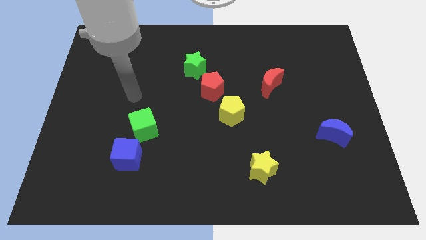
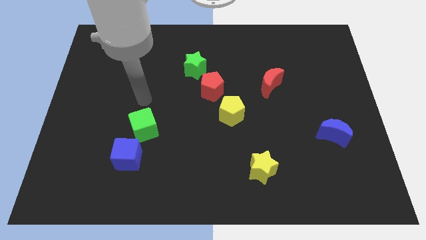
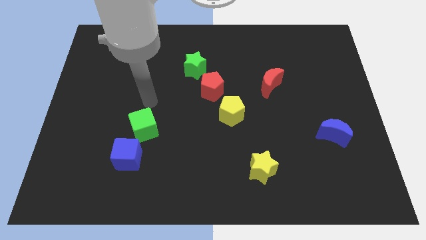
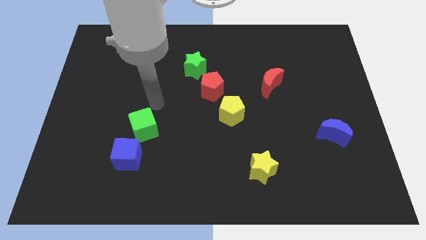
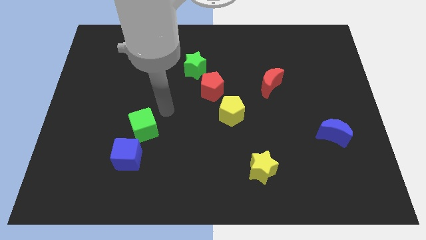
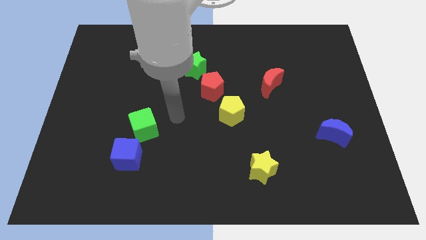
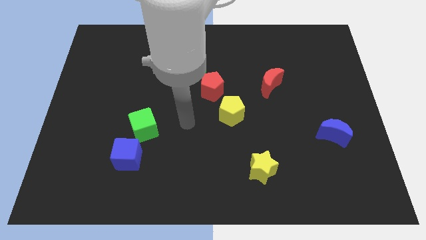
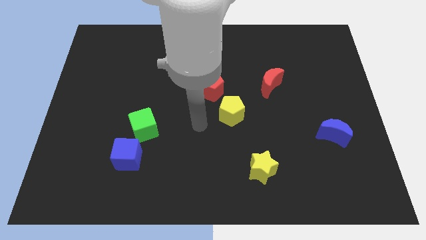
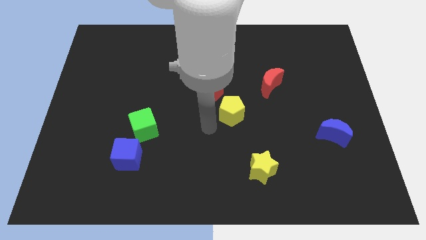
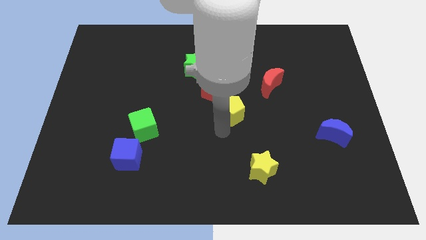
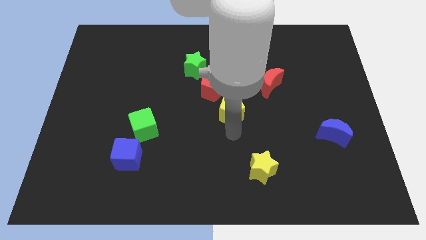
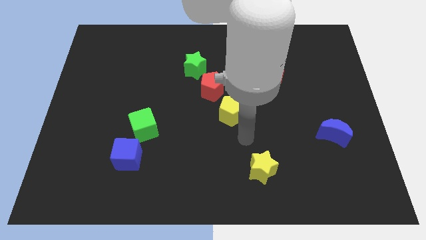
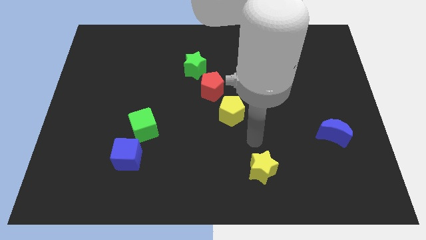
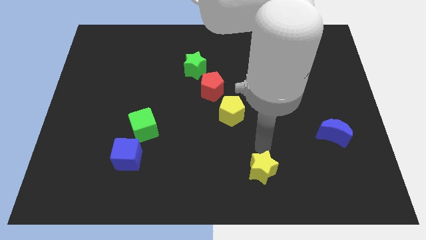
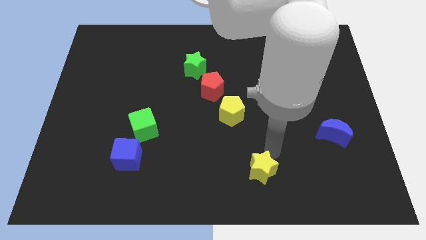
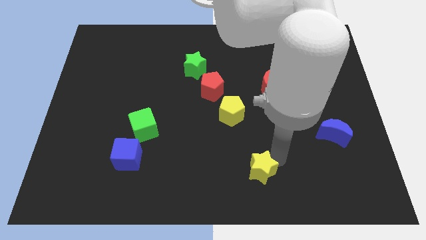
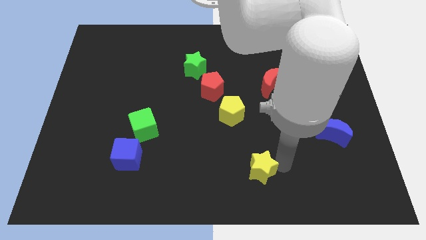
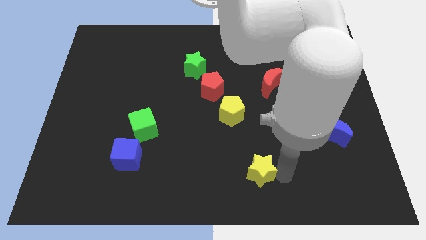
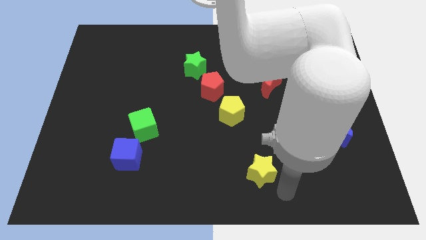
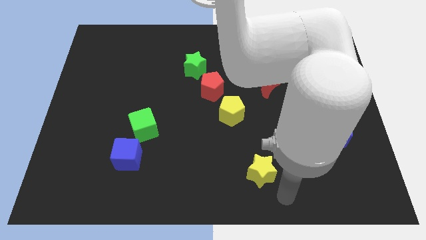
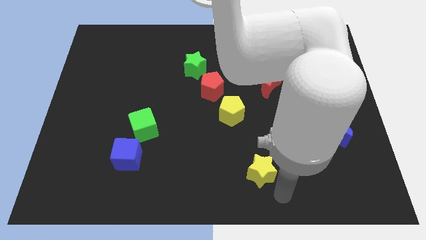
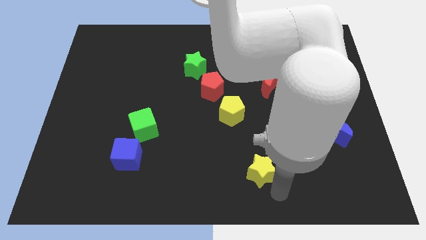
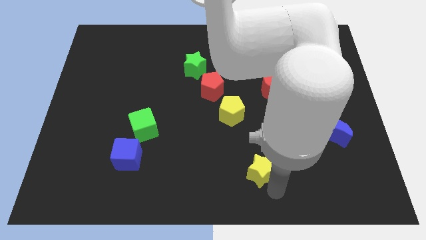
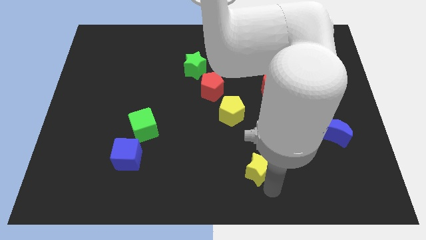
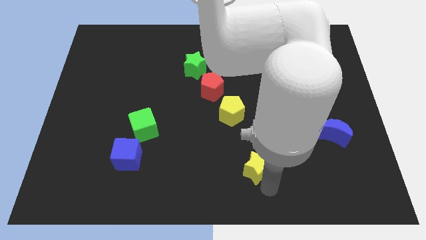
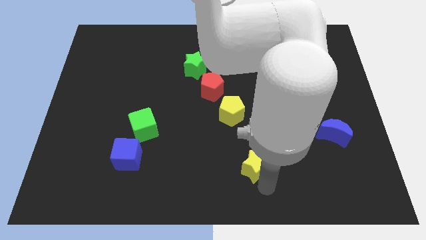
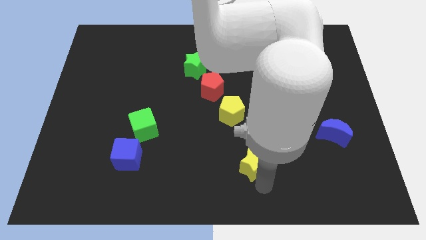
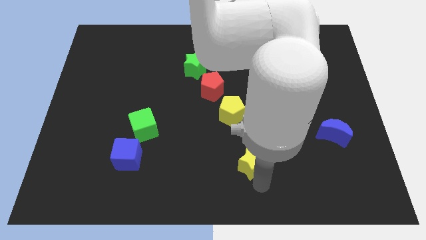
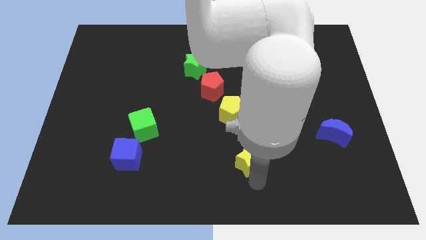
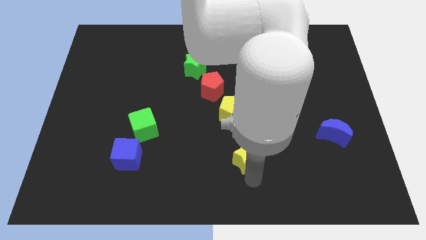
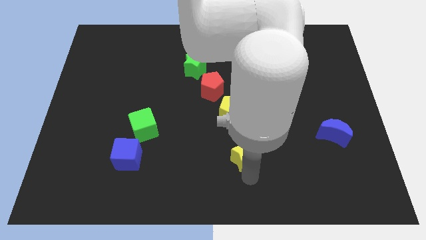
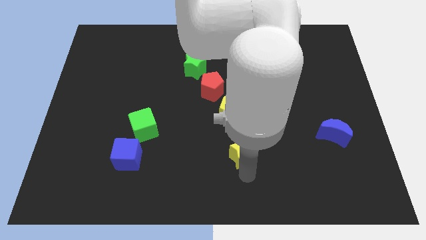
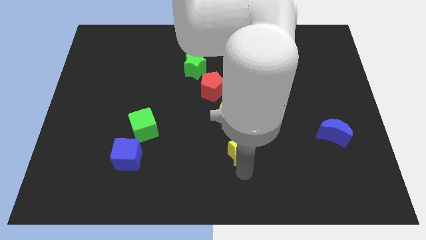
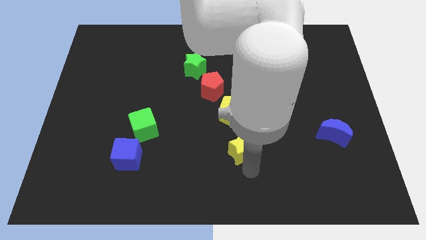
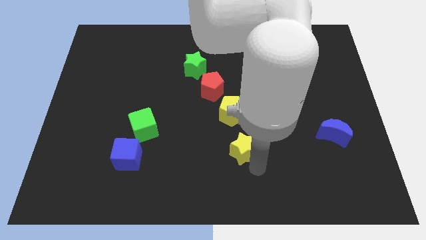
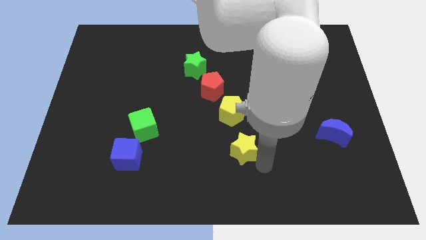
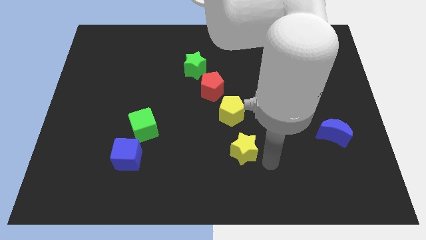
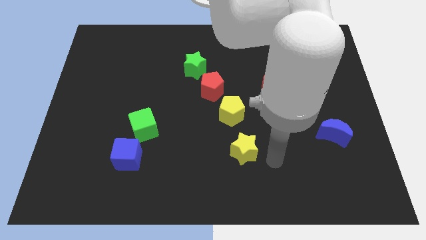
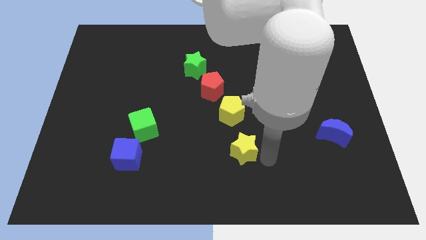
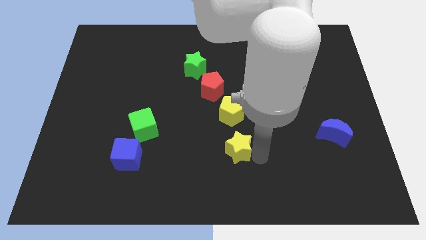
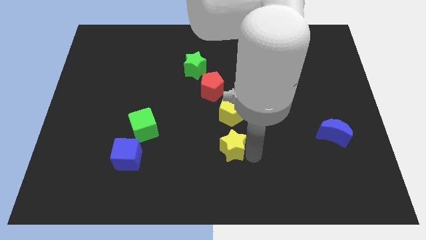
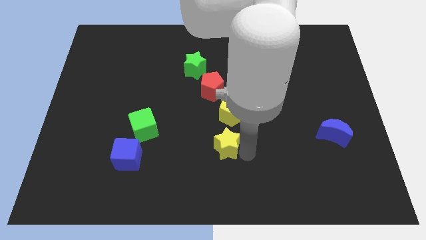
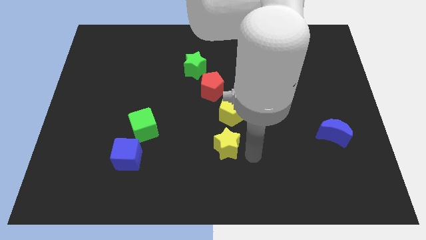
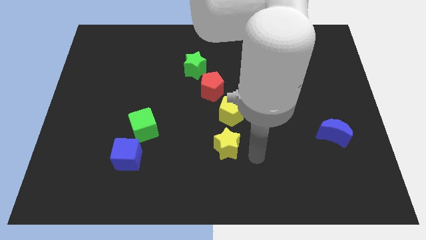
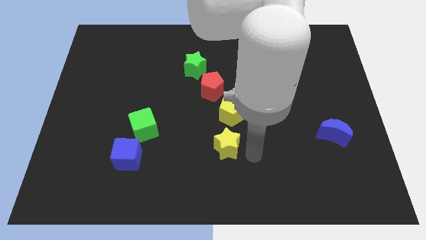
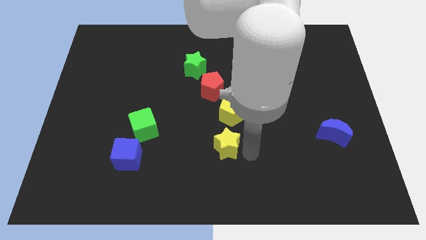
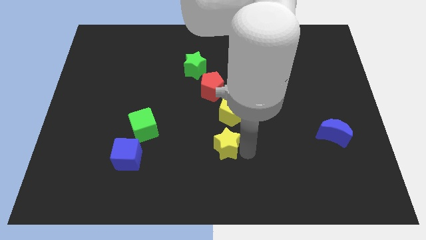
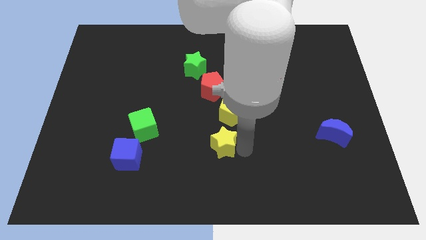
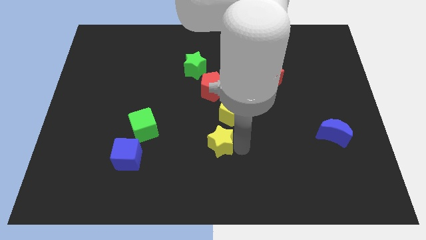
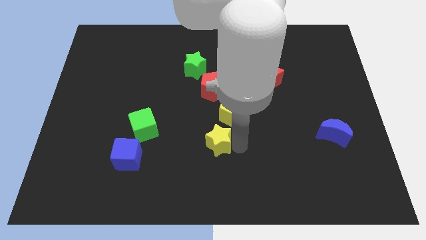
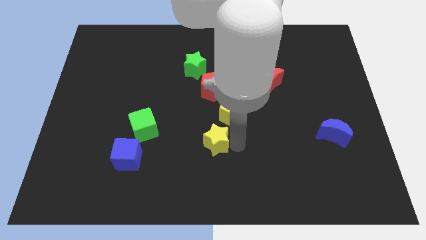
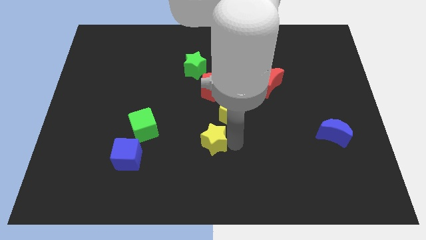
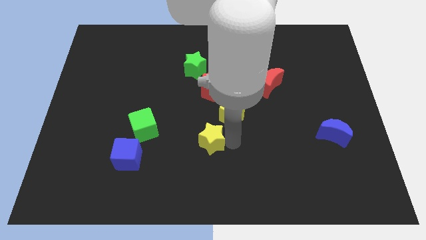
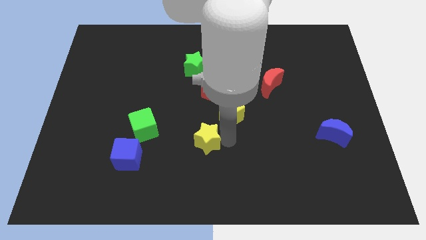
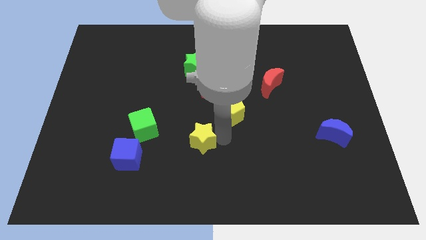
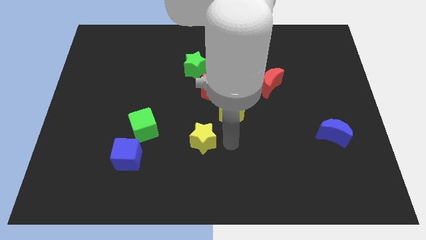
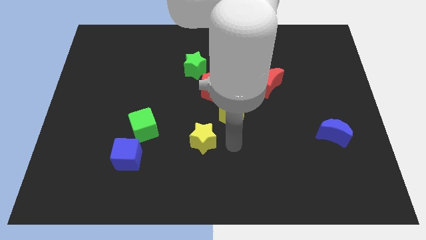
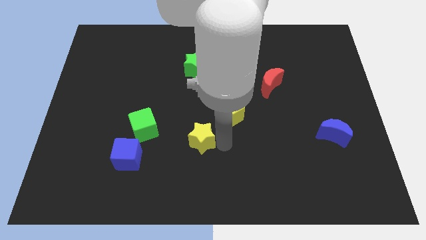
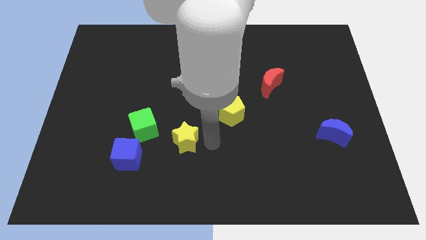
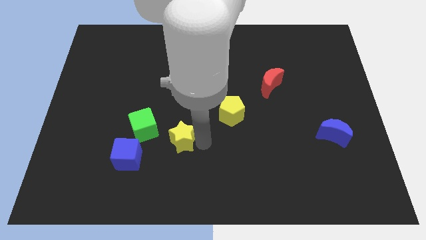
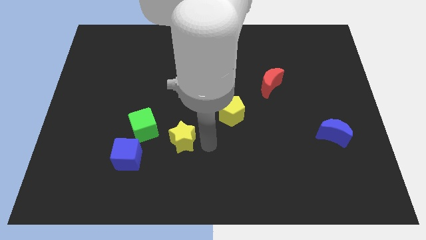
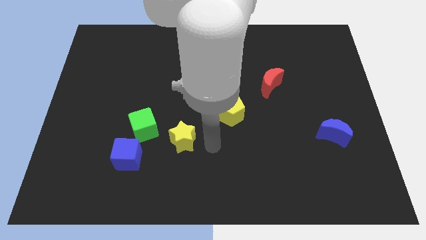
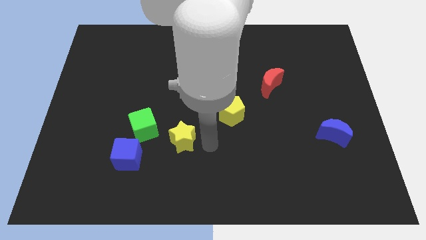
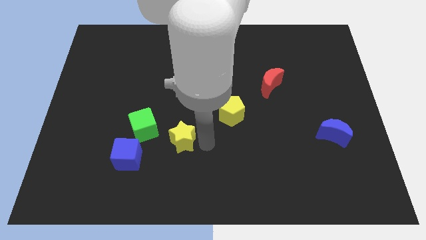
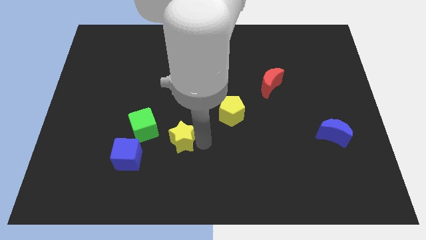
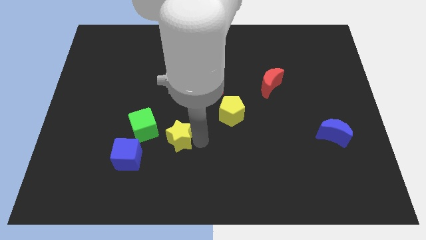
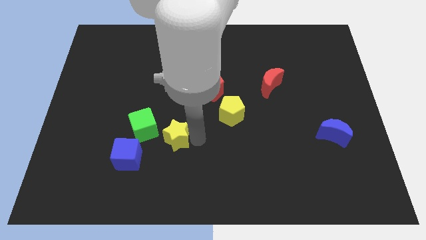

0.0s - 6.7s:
put the yellow star to the top right of the blue cube

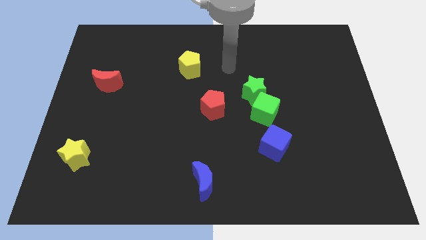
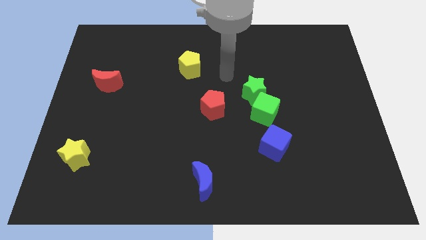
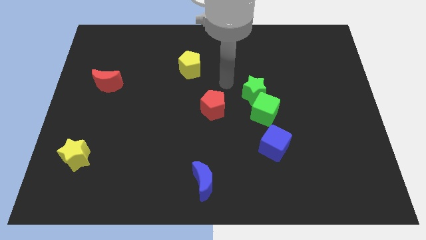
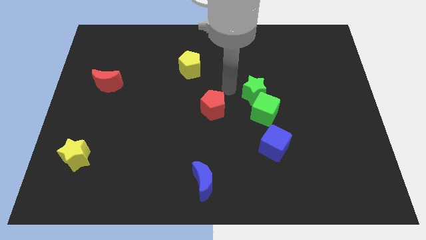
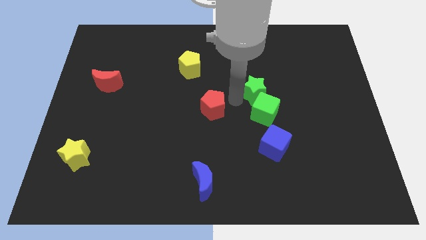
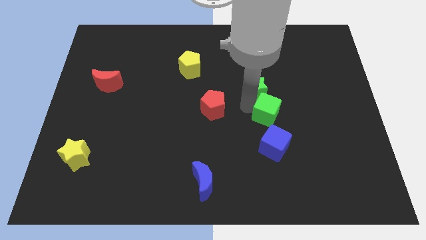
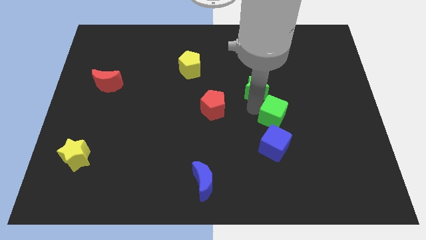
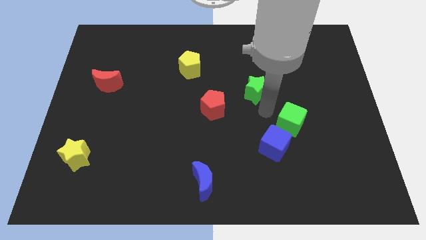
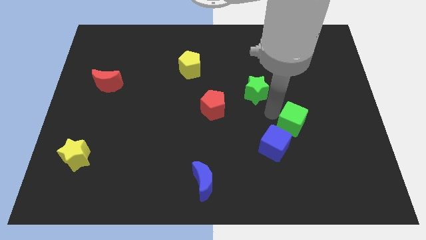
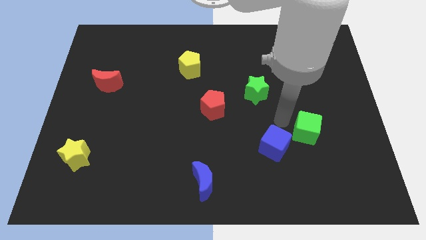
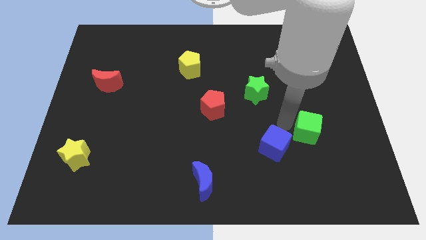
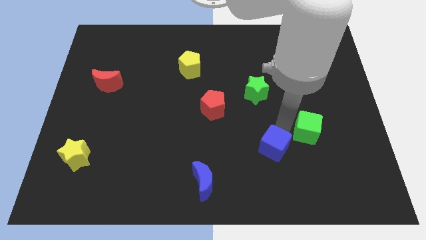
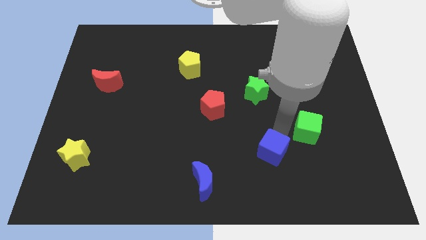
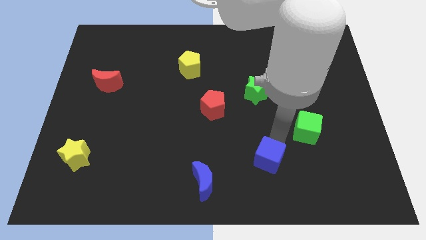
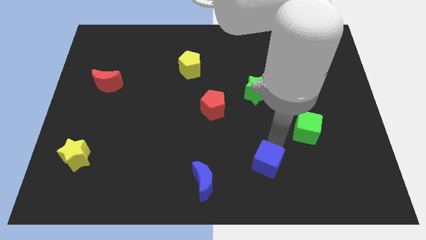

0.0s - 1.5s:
push the blue cube just right of the blue moon
